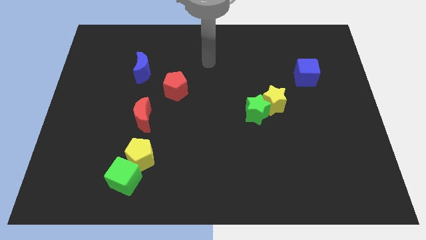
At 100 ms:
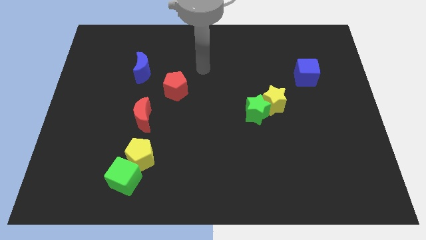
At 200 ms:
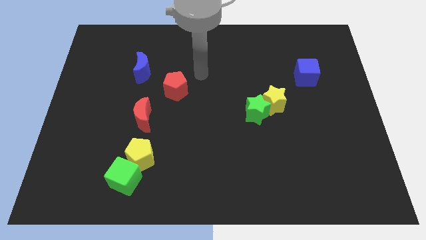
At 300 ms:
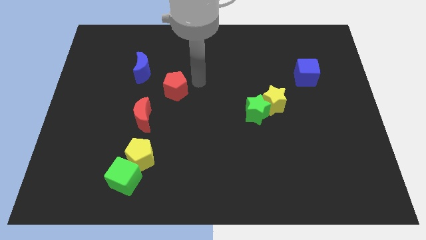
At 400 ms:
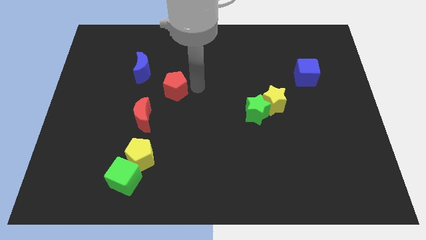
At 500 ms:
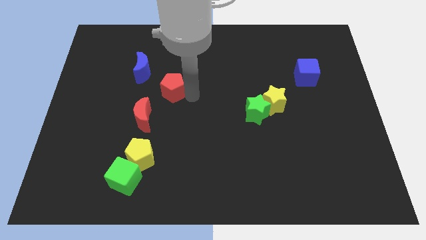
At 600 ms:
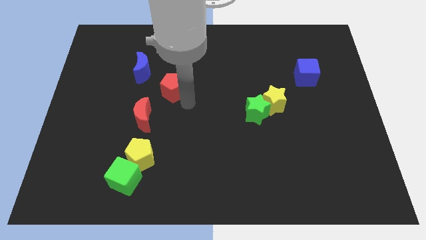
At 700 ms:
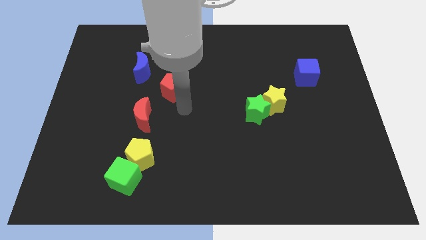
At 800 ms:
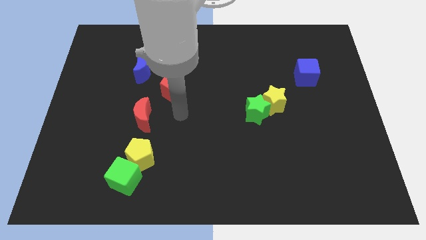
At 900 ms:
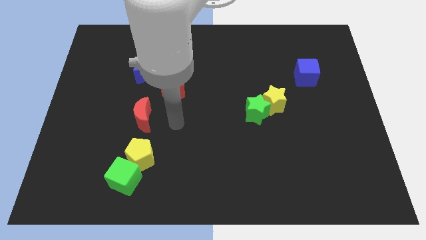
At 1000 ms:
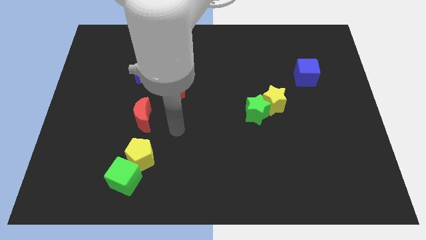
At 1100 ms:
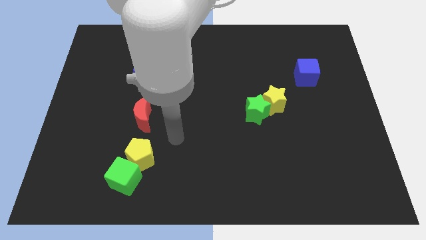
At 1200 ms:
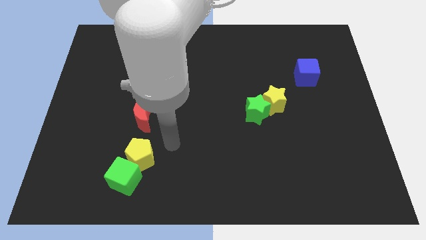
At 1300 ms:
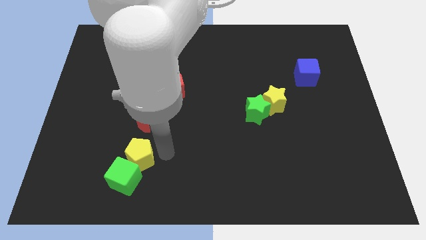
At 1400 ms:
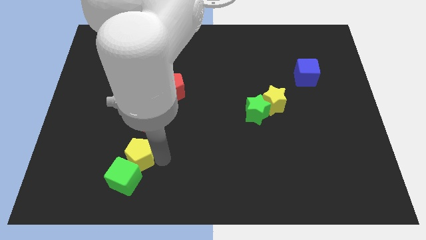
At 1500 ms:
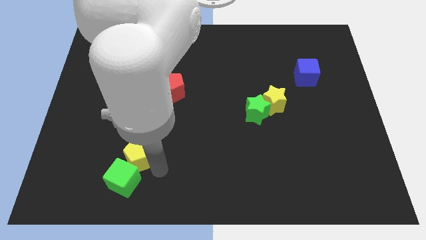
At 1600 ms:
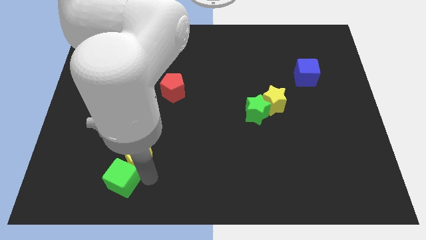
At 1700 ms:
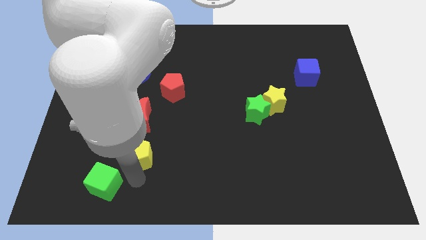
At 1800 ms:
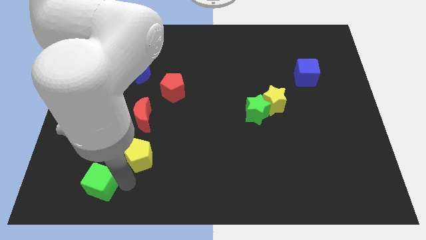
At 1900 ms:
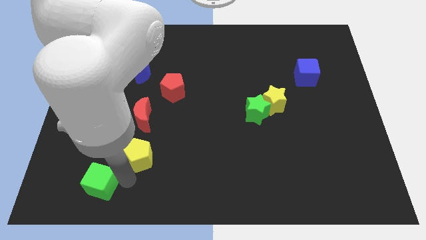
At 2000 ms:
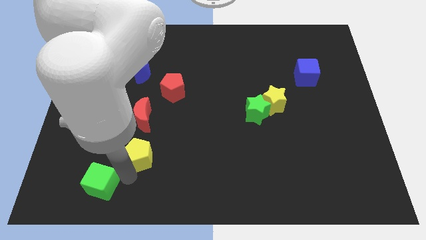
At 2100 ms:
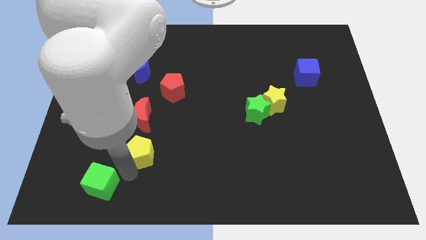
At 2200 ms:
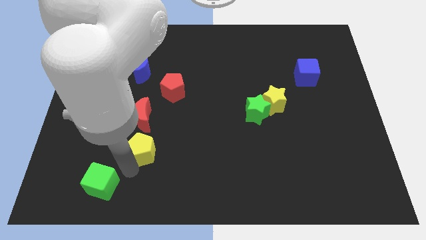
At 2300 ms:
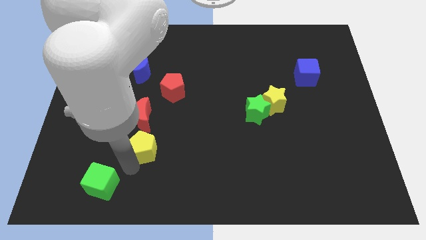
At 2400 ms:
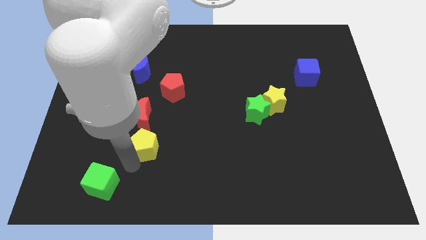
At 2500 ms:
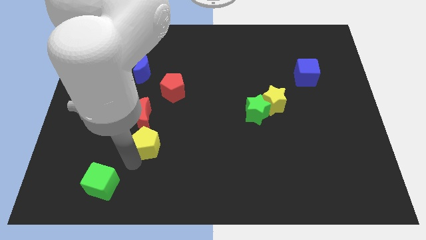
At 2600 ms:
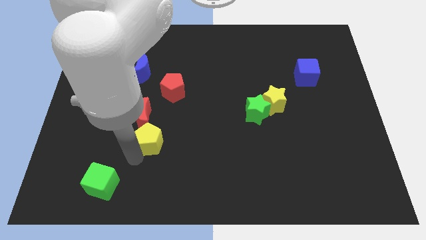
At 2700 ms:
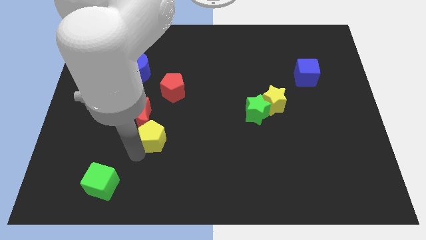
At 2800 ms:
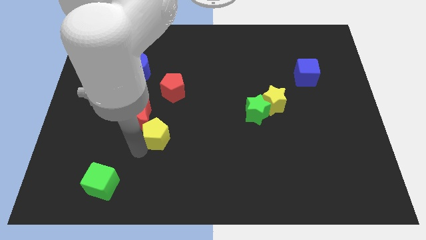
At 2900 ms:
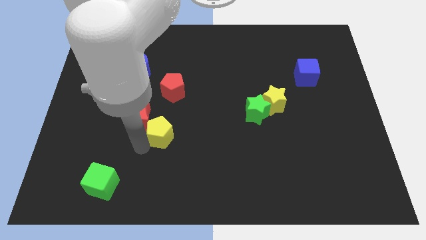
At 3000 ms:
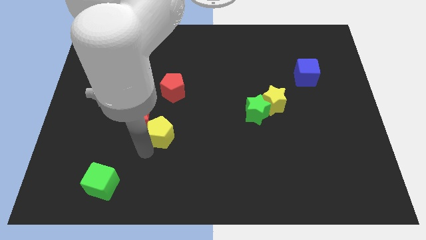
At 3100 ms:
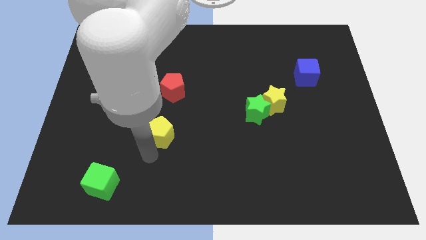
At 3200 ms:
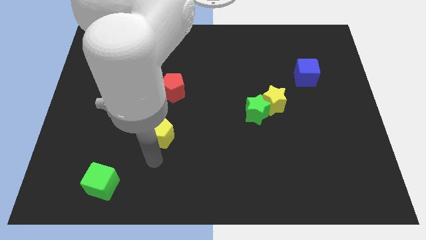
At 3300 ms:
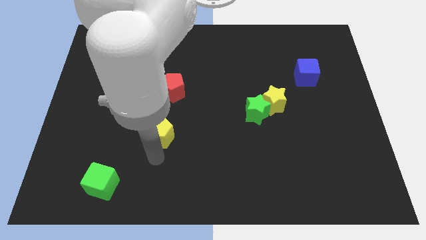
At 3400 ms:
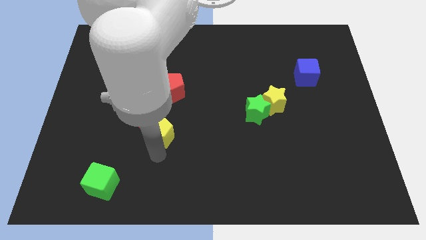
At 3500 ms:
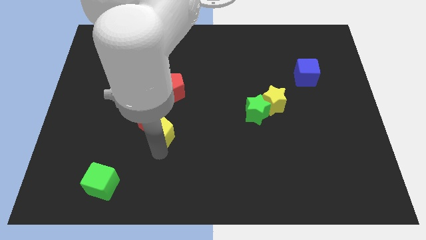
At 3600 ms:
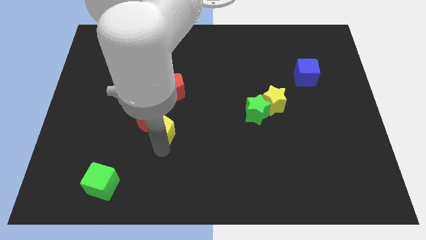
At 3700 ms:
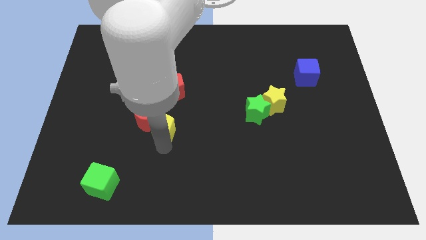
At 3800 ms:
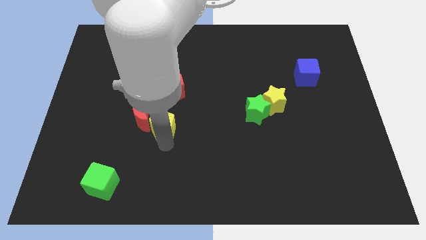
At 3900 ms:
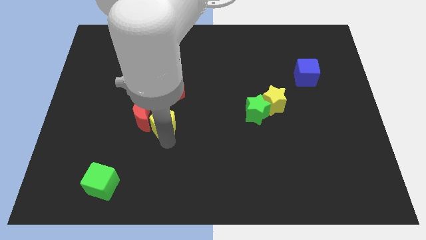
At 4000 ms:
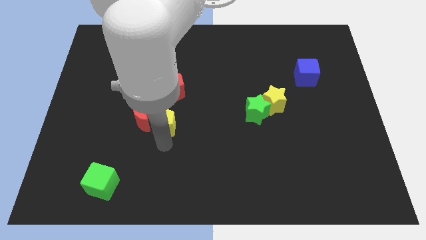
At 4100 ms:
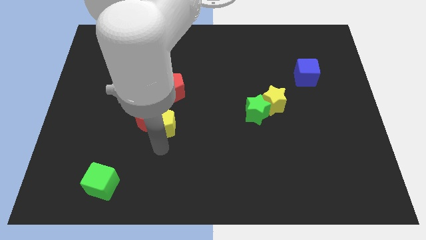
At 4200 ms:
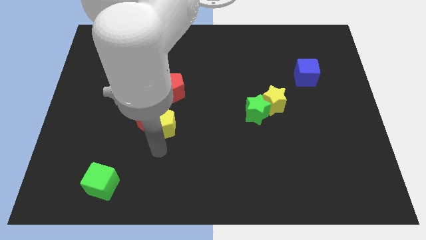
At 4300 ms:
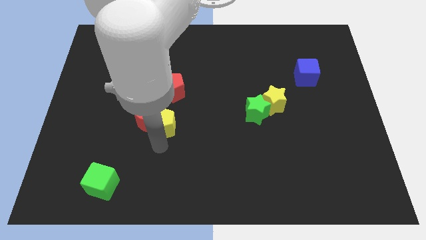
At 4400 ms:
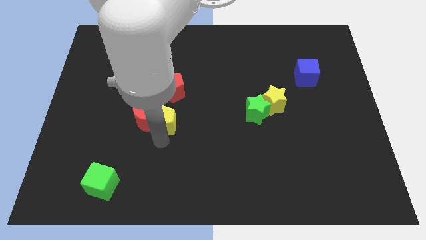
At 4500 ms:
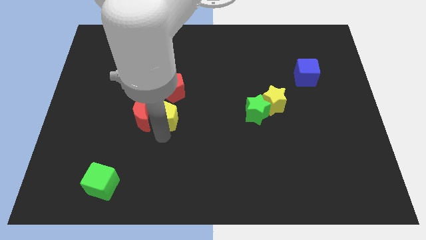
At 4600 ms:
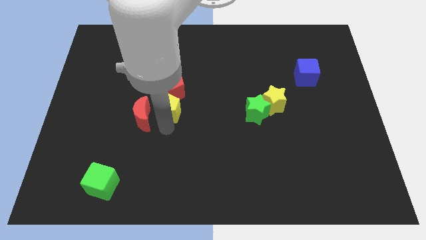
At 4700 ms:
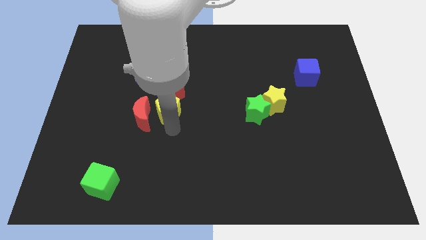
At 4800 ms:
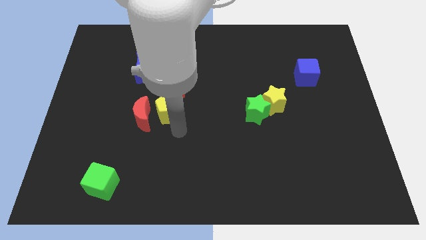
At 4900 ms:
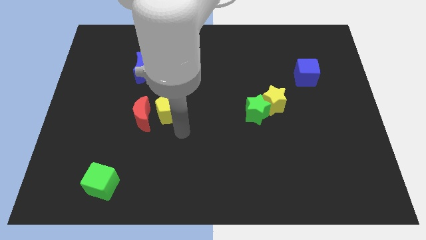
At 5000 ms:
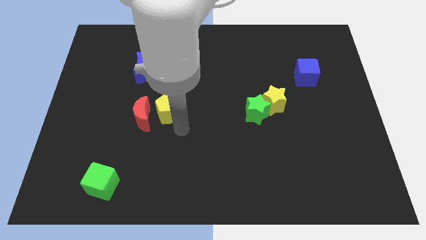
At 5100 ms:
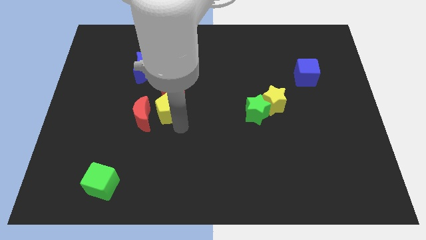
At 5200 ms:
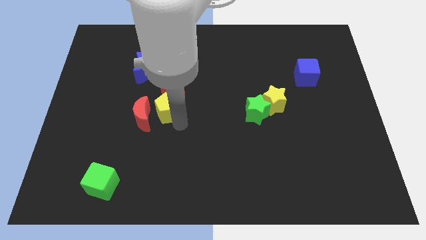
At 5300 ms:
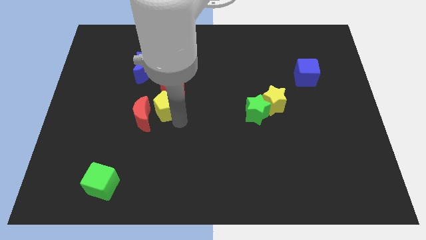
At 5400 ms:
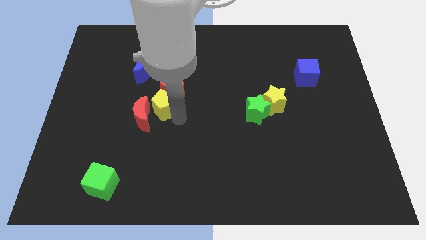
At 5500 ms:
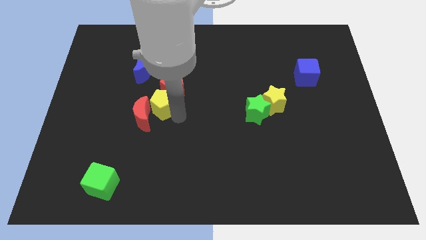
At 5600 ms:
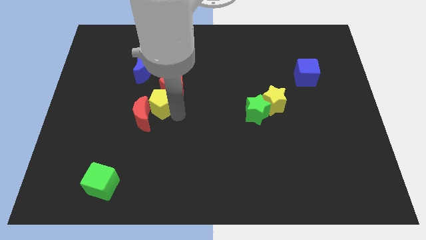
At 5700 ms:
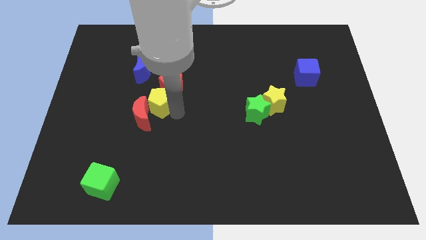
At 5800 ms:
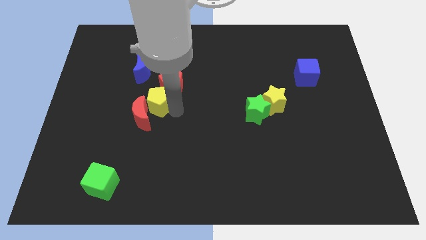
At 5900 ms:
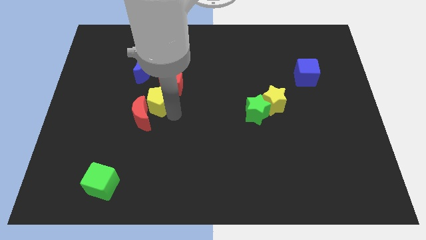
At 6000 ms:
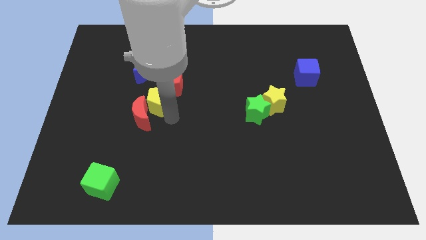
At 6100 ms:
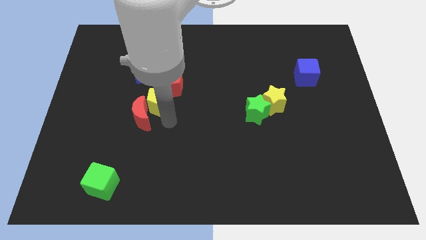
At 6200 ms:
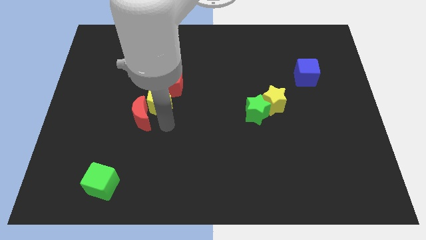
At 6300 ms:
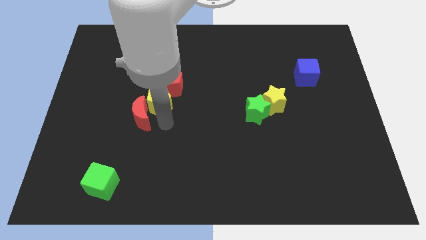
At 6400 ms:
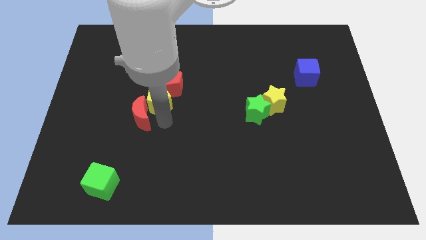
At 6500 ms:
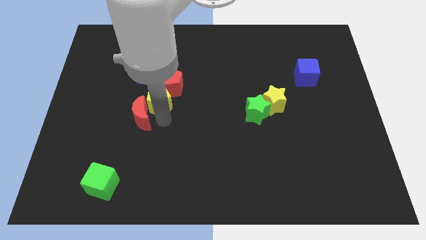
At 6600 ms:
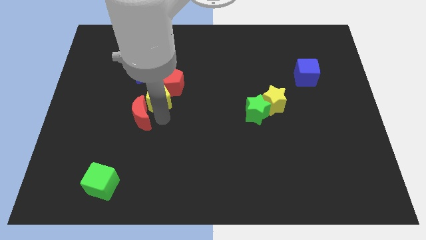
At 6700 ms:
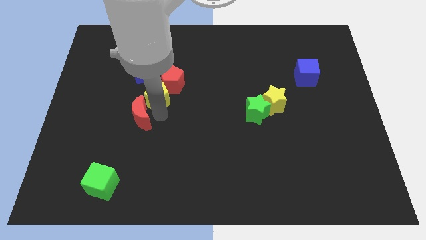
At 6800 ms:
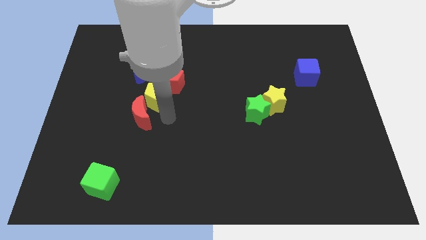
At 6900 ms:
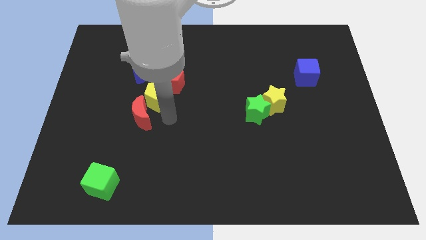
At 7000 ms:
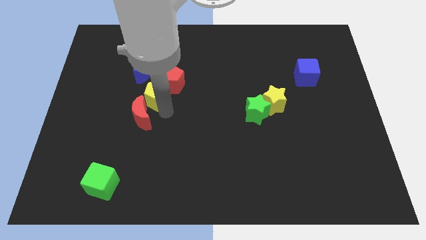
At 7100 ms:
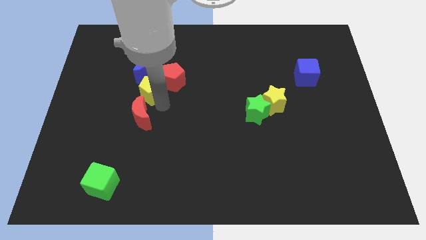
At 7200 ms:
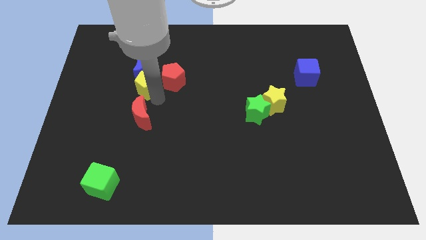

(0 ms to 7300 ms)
slide the yellow pentagon to the blue moon

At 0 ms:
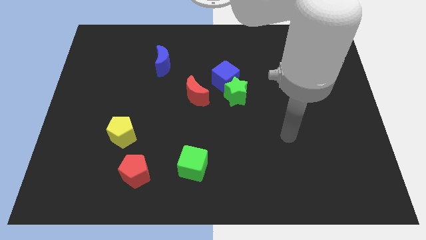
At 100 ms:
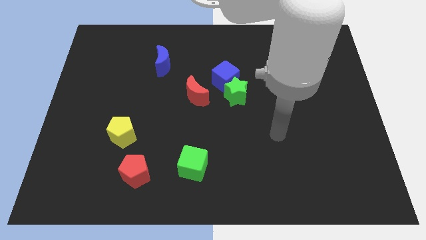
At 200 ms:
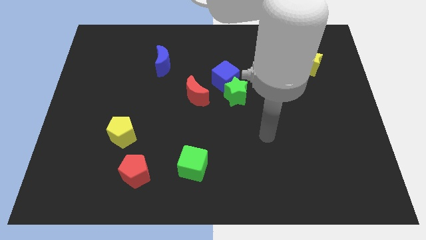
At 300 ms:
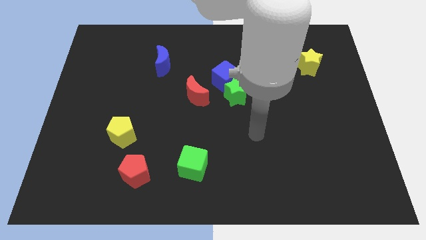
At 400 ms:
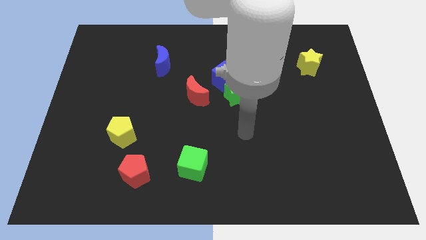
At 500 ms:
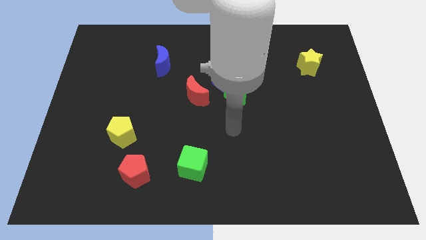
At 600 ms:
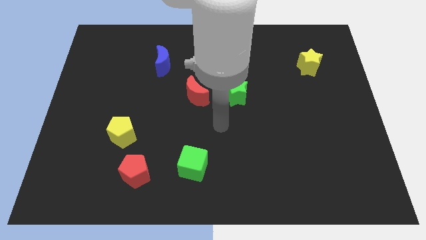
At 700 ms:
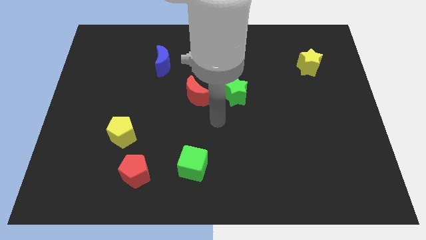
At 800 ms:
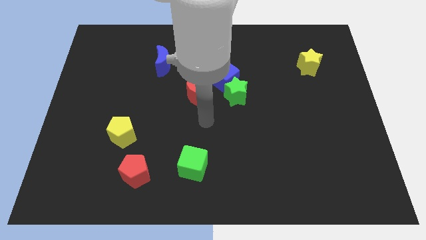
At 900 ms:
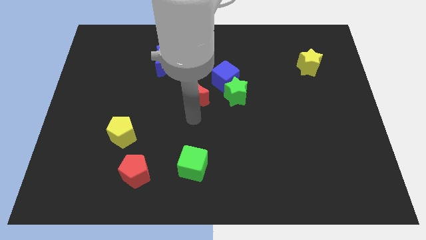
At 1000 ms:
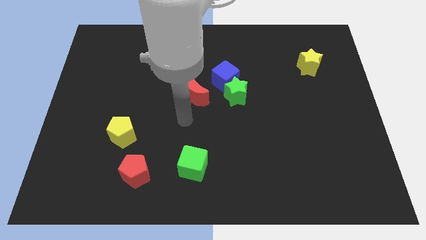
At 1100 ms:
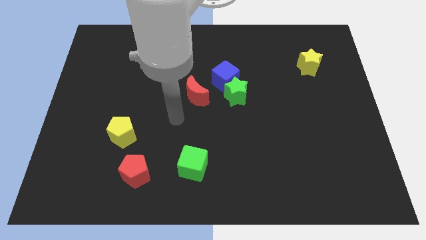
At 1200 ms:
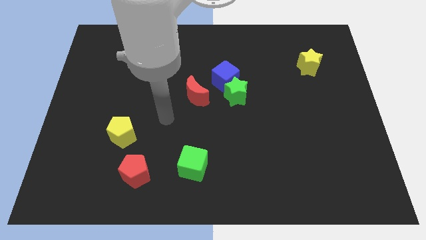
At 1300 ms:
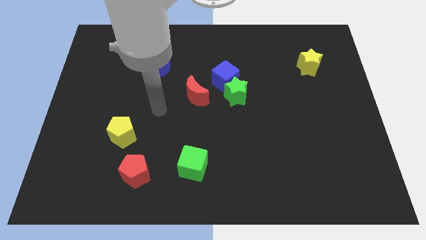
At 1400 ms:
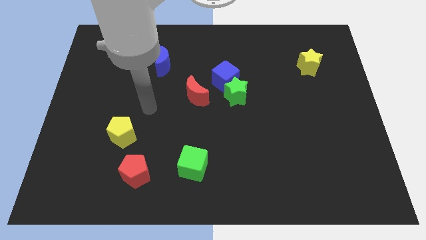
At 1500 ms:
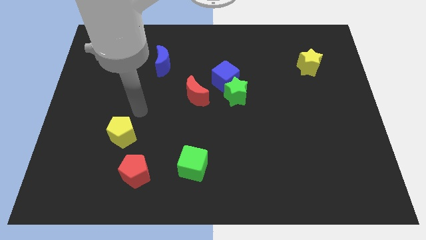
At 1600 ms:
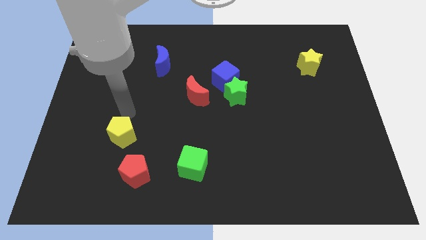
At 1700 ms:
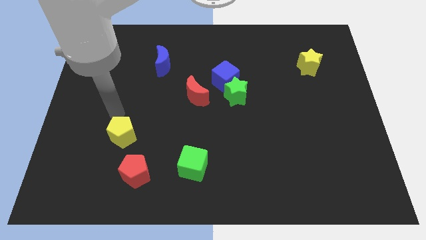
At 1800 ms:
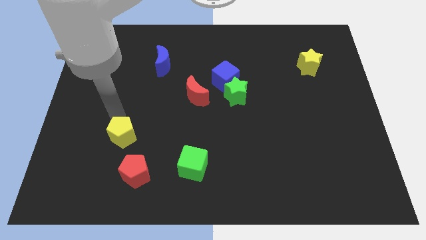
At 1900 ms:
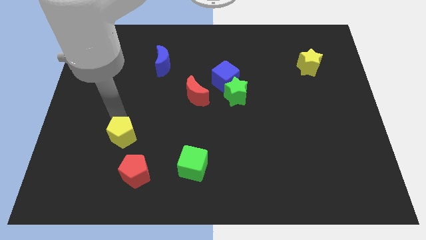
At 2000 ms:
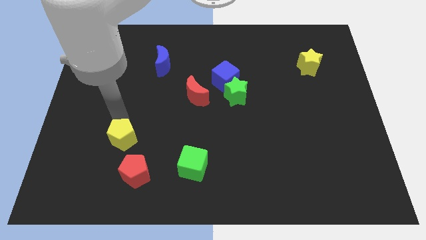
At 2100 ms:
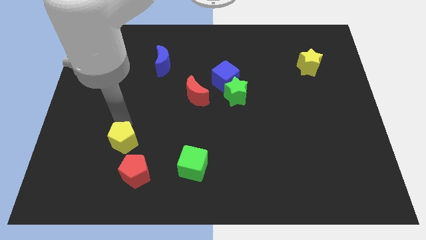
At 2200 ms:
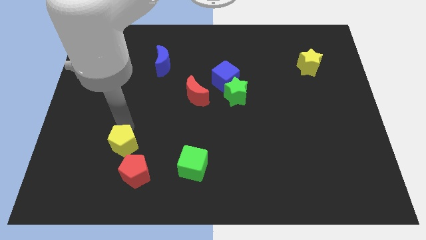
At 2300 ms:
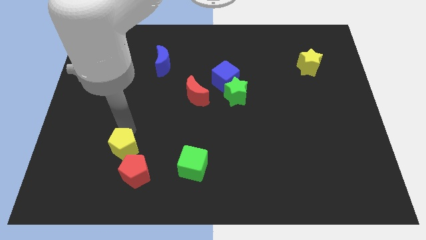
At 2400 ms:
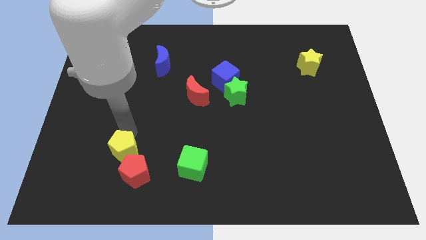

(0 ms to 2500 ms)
move the yellow pentagon next to the red pentagon
